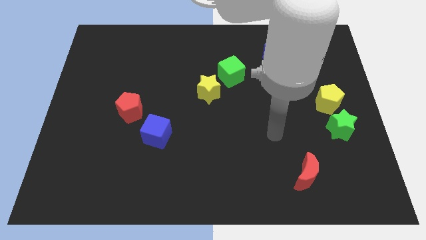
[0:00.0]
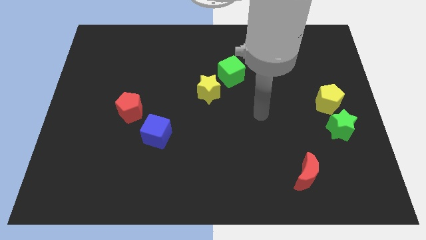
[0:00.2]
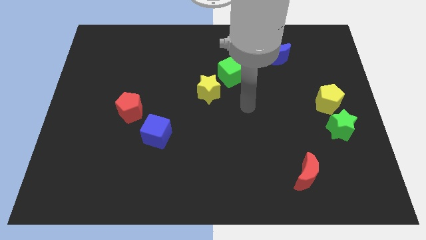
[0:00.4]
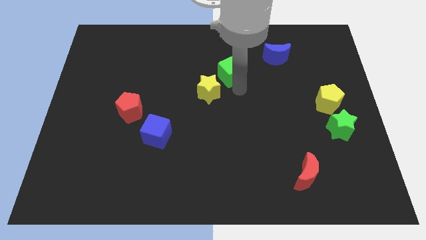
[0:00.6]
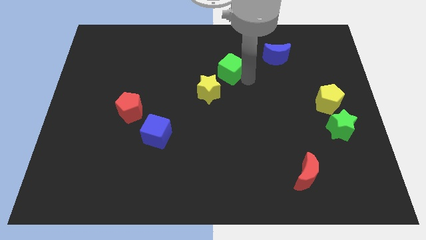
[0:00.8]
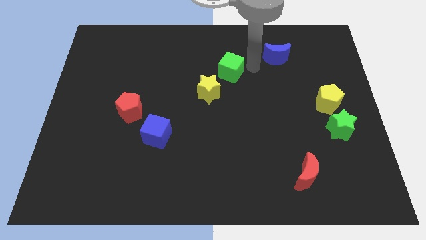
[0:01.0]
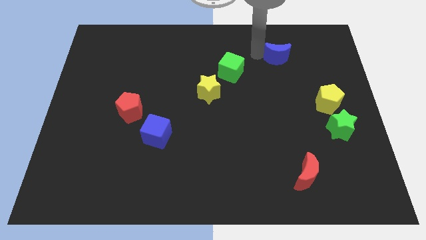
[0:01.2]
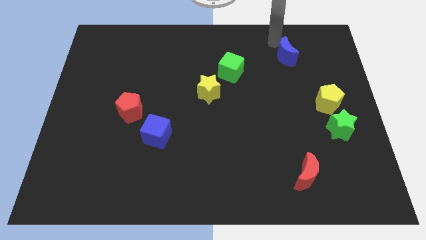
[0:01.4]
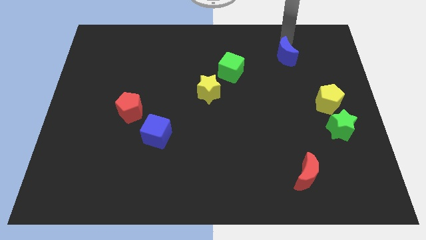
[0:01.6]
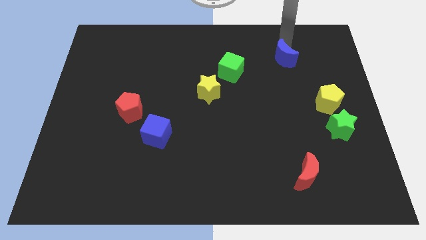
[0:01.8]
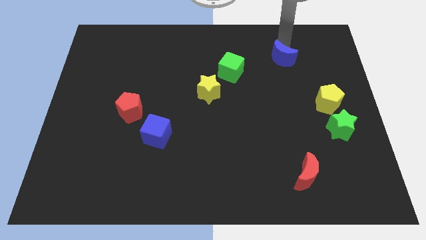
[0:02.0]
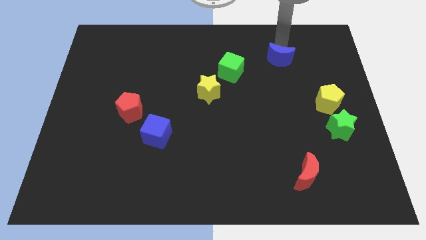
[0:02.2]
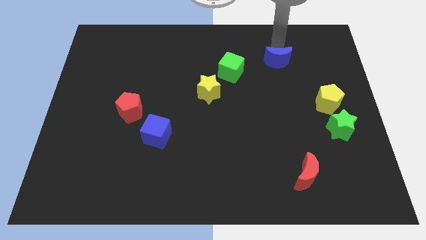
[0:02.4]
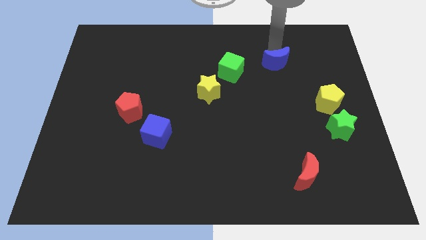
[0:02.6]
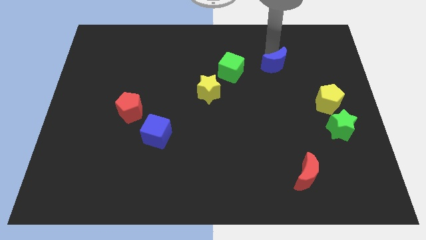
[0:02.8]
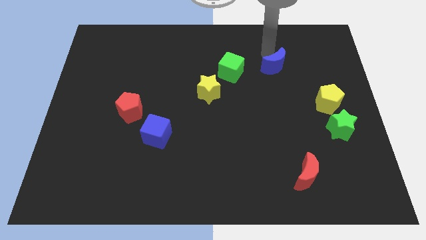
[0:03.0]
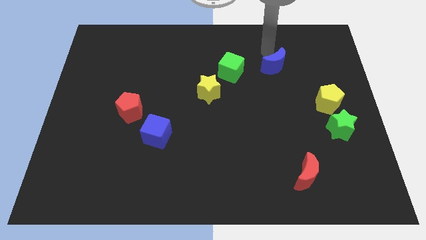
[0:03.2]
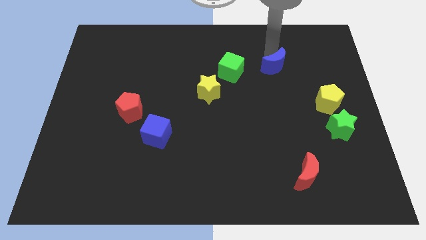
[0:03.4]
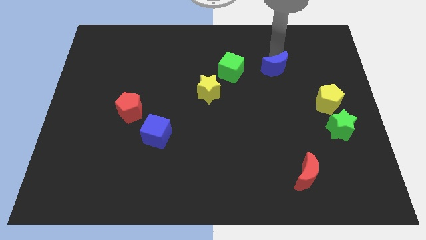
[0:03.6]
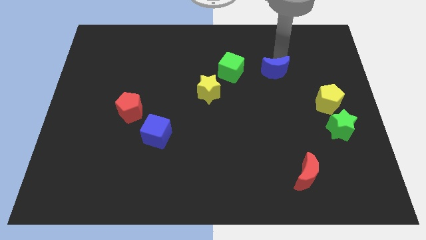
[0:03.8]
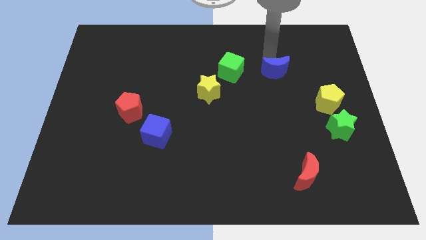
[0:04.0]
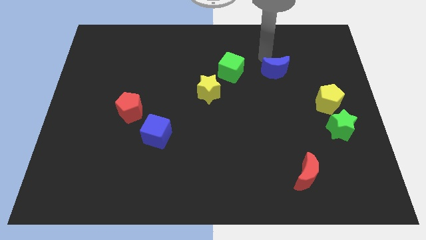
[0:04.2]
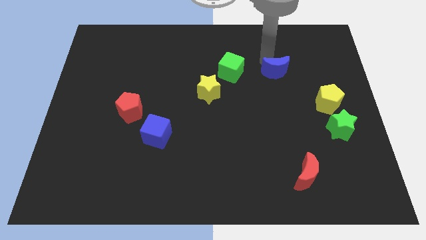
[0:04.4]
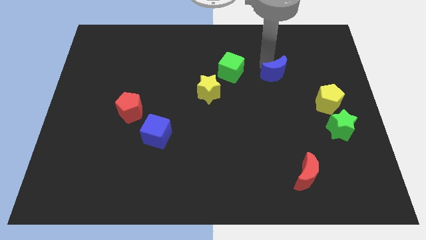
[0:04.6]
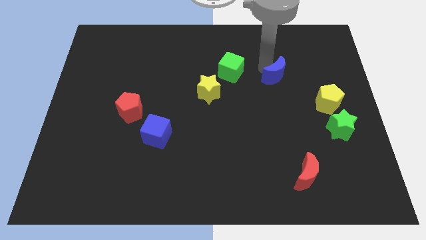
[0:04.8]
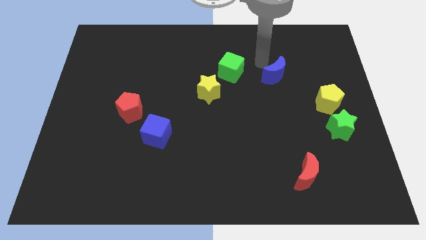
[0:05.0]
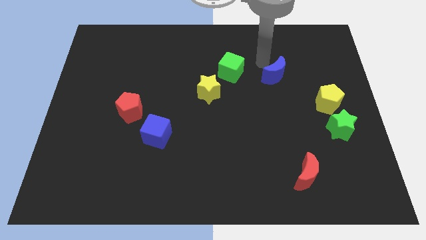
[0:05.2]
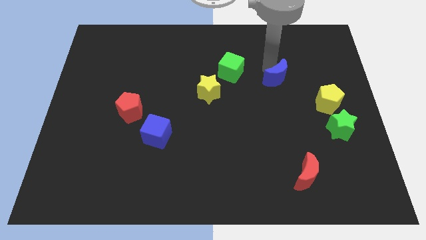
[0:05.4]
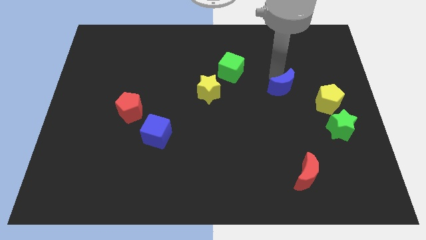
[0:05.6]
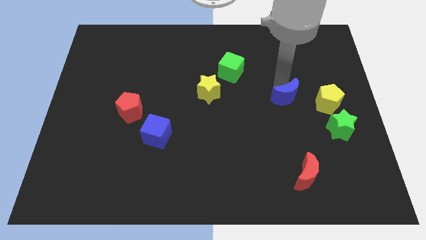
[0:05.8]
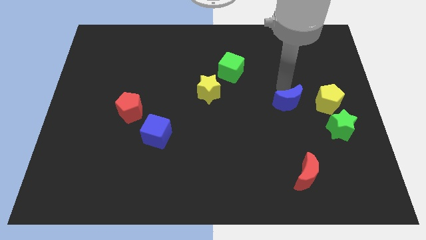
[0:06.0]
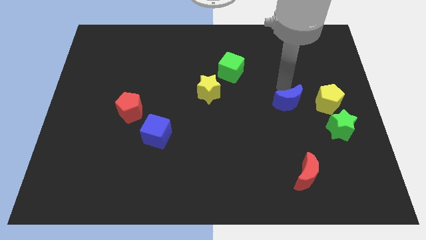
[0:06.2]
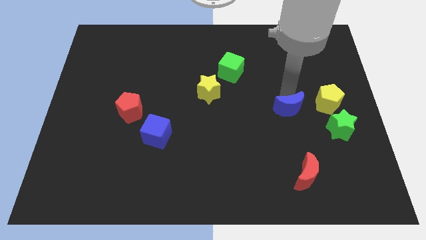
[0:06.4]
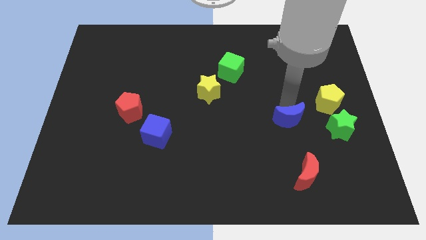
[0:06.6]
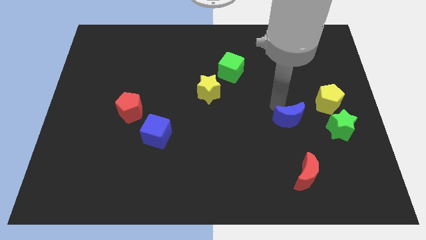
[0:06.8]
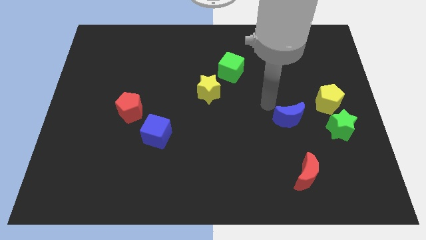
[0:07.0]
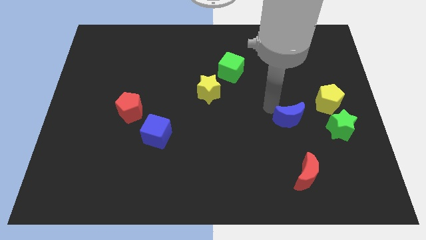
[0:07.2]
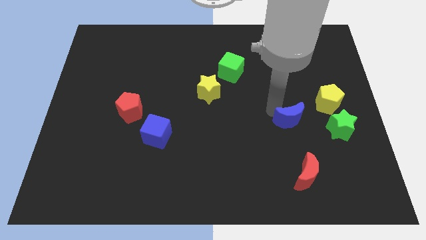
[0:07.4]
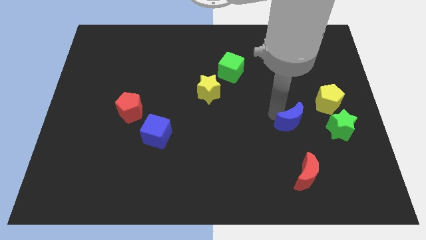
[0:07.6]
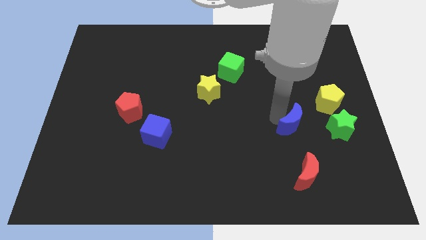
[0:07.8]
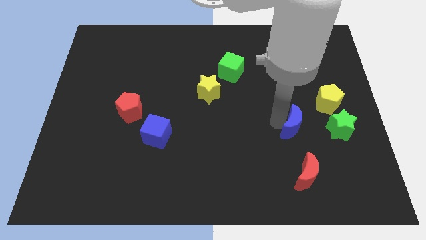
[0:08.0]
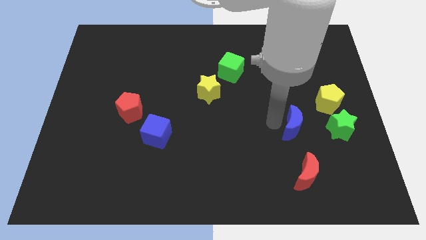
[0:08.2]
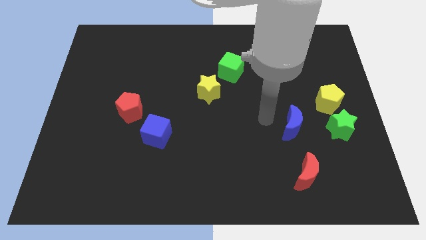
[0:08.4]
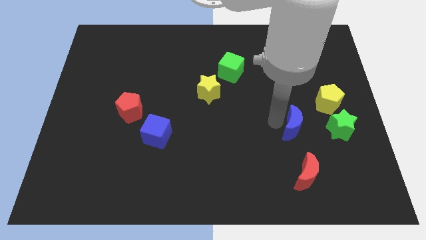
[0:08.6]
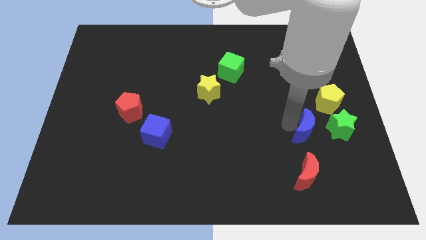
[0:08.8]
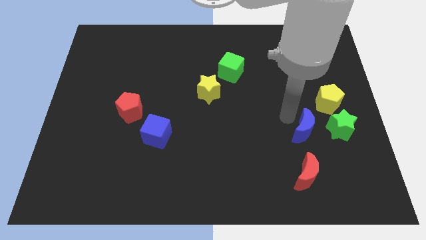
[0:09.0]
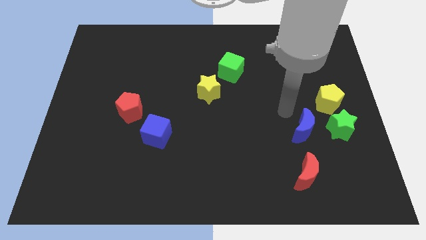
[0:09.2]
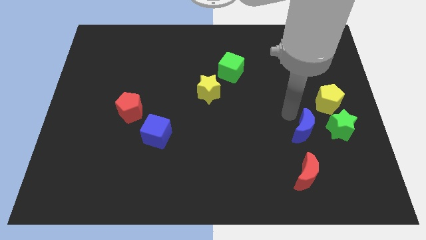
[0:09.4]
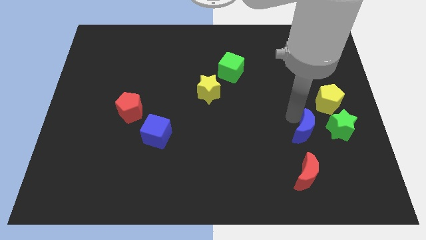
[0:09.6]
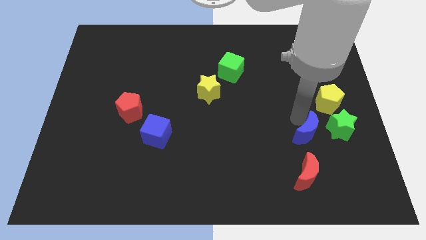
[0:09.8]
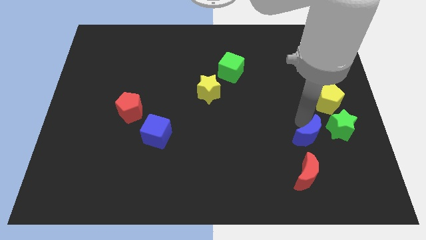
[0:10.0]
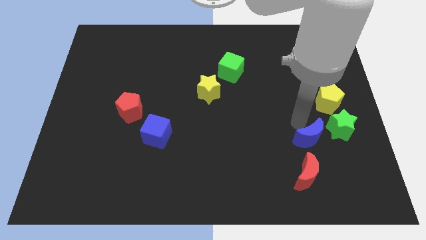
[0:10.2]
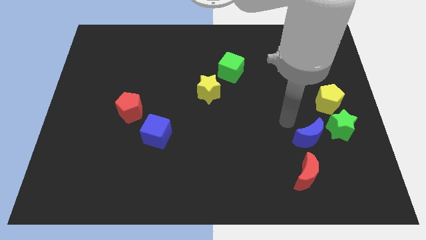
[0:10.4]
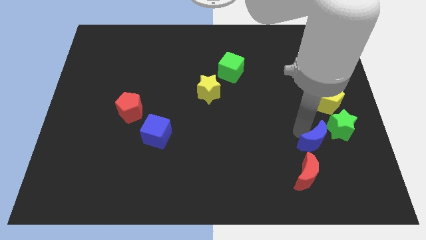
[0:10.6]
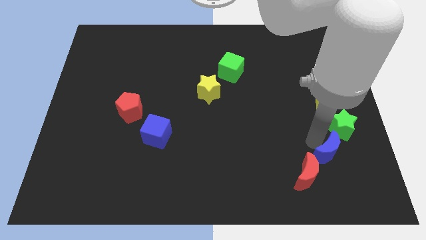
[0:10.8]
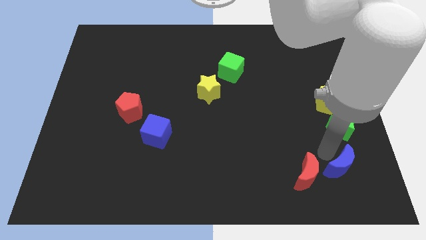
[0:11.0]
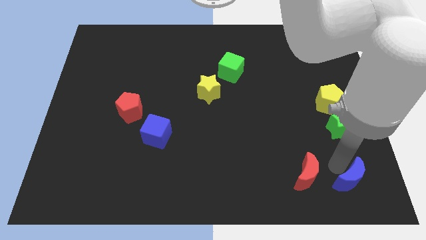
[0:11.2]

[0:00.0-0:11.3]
push the blue moon to the bottom right of the board
